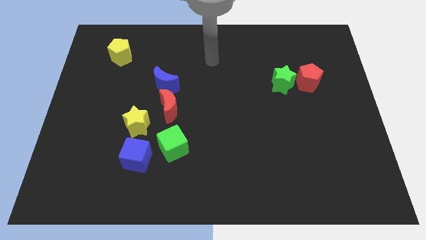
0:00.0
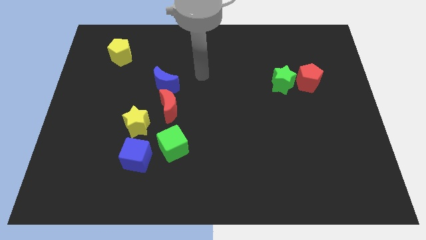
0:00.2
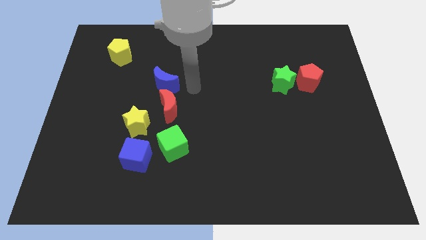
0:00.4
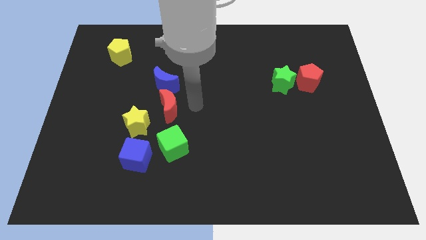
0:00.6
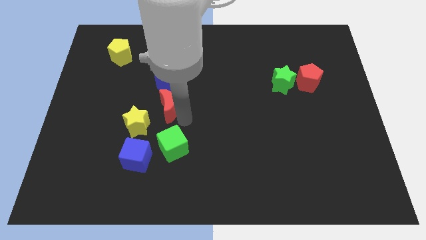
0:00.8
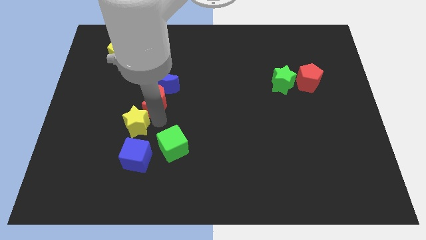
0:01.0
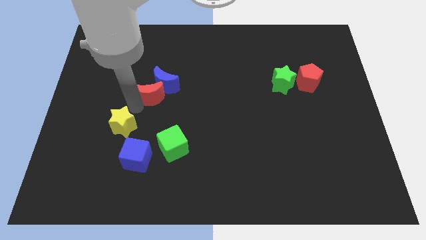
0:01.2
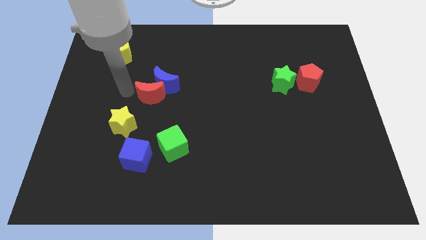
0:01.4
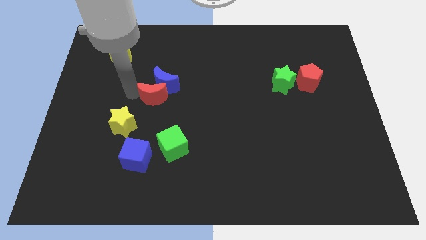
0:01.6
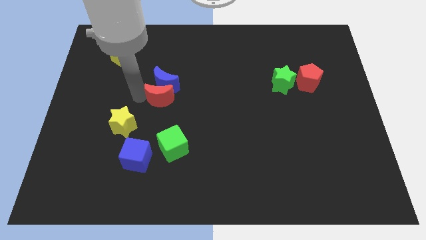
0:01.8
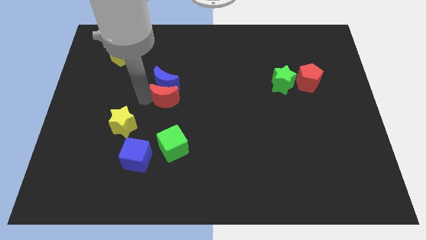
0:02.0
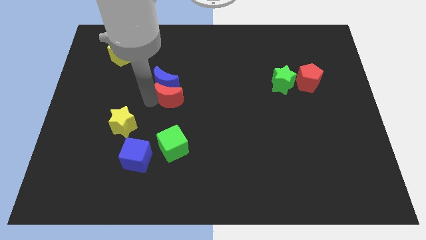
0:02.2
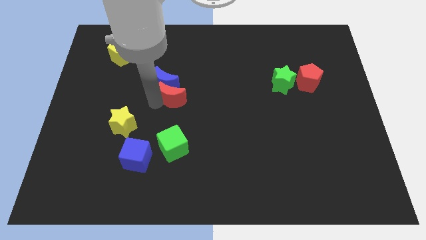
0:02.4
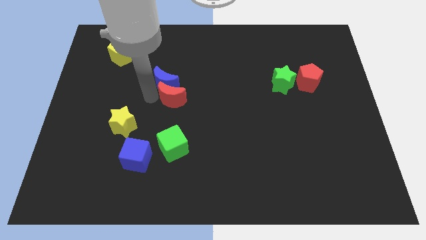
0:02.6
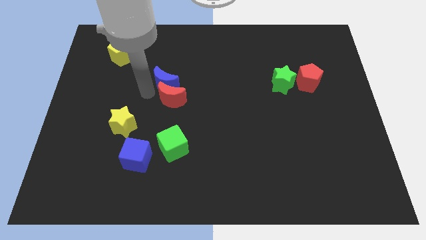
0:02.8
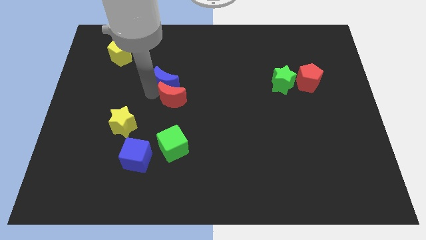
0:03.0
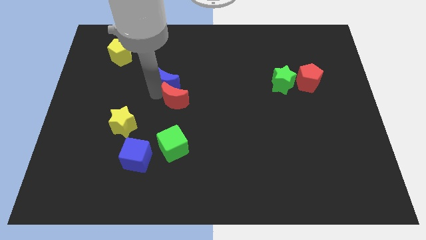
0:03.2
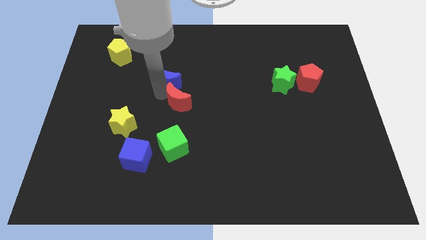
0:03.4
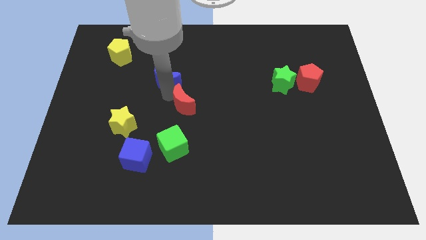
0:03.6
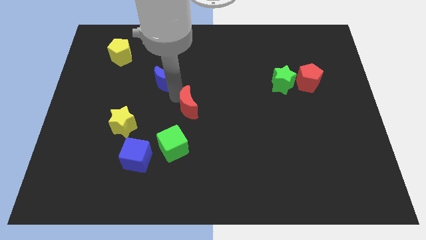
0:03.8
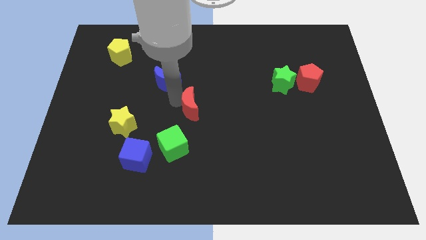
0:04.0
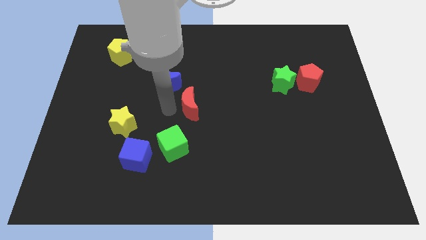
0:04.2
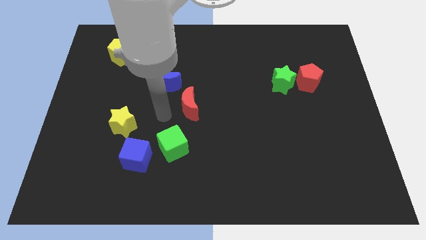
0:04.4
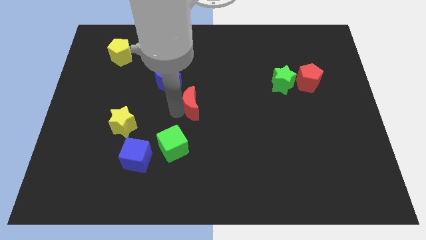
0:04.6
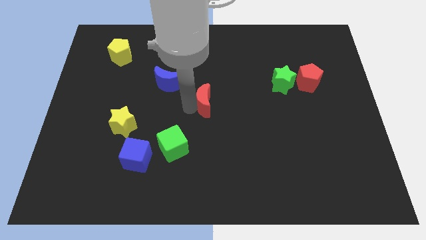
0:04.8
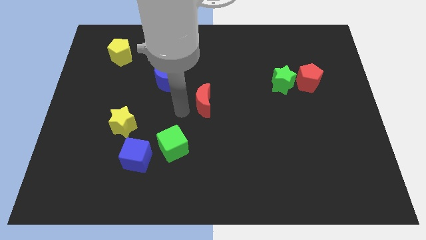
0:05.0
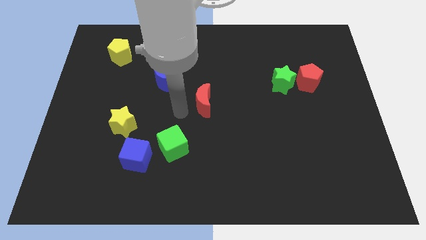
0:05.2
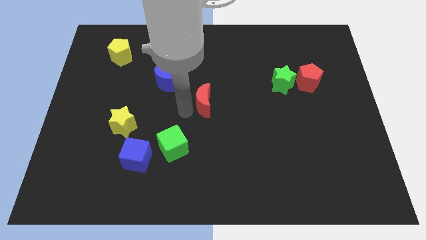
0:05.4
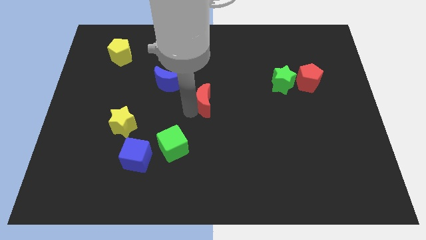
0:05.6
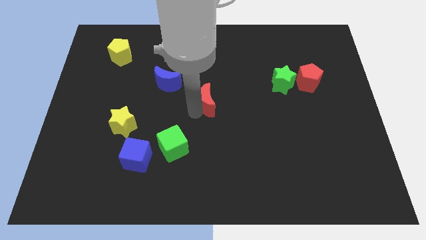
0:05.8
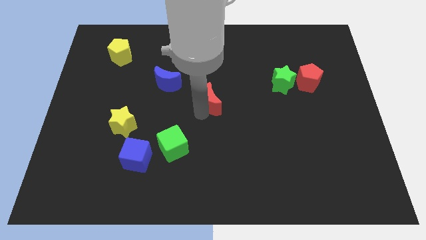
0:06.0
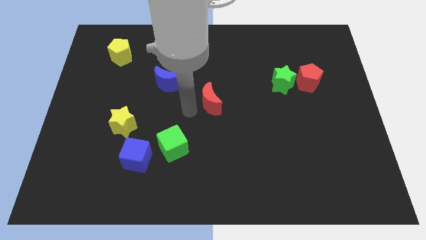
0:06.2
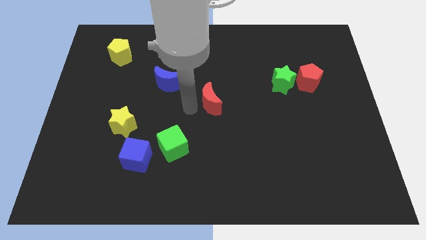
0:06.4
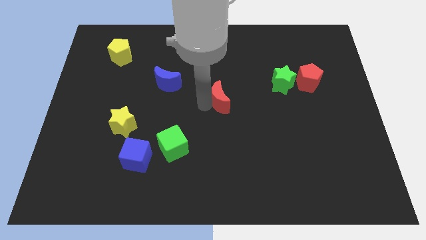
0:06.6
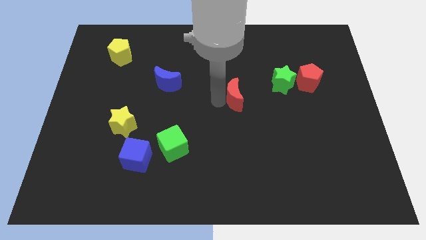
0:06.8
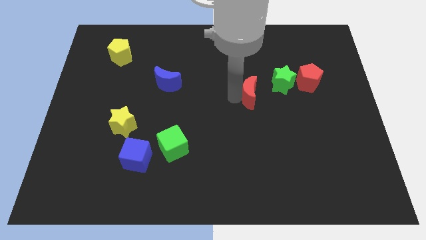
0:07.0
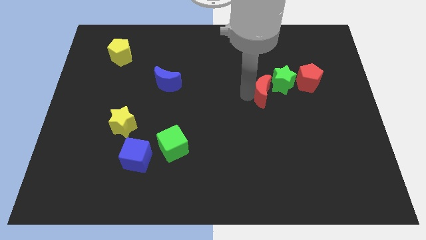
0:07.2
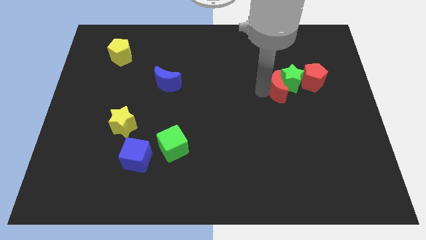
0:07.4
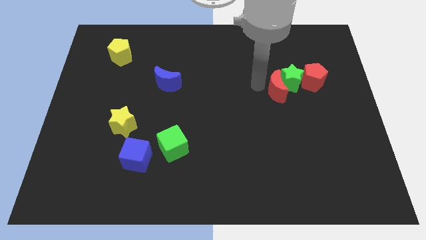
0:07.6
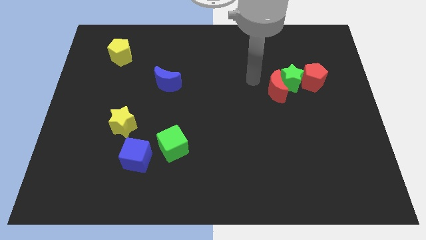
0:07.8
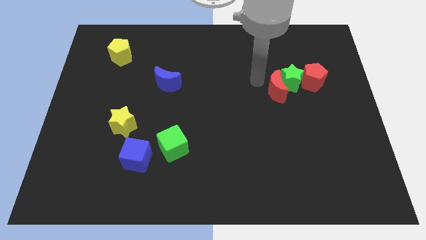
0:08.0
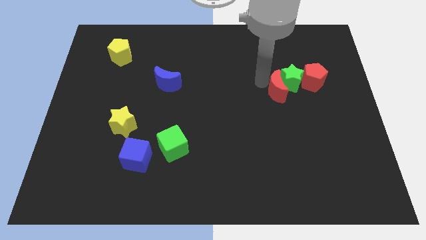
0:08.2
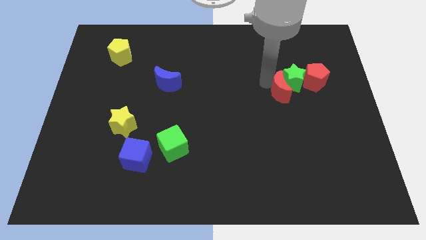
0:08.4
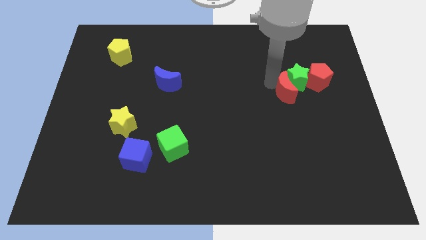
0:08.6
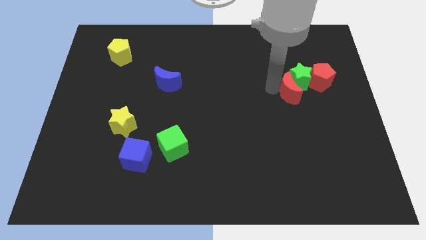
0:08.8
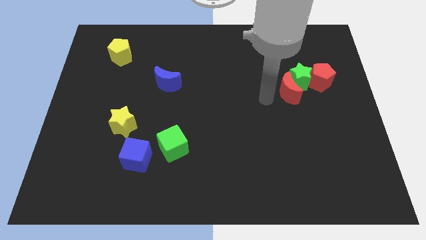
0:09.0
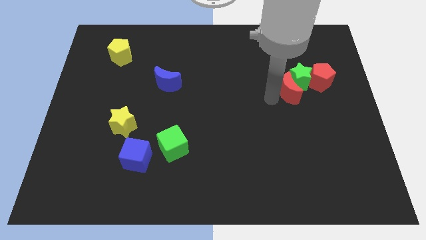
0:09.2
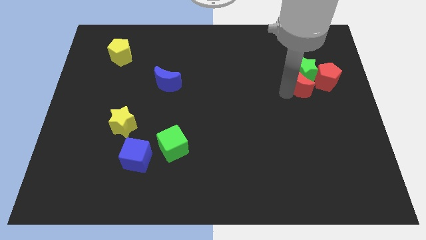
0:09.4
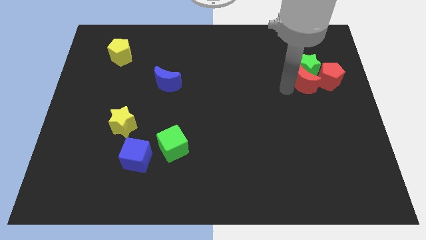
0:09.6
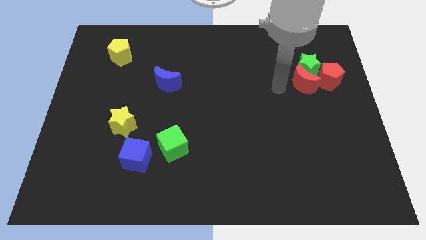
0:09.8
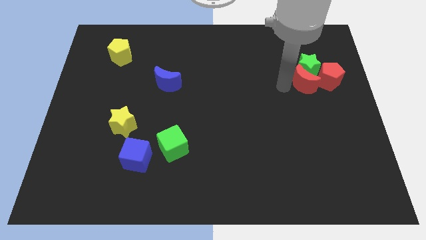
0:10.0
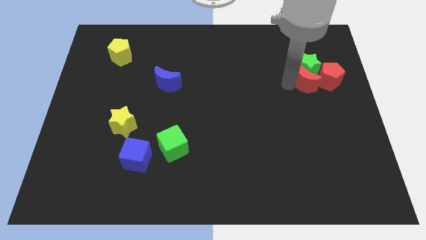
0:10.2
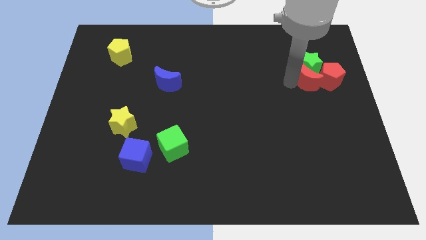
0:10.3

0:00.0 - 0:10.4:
push the red moon close to the red pentagon

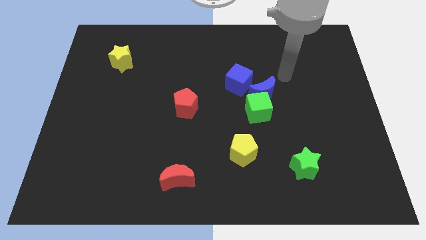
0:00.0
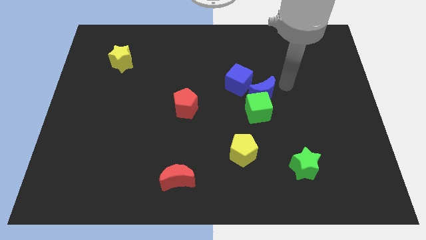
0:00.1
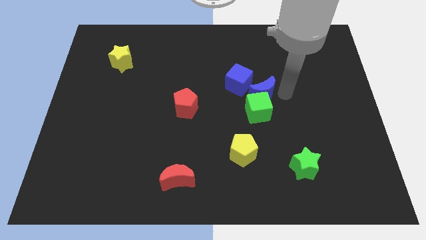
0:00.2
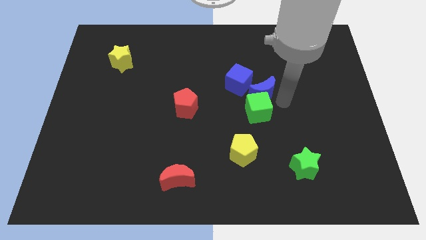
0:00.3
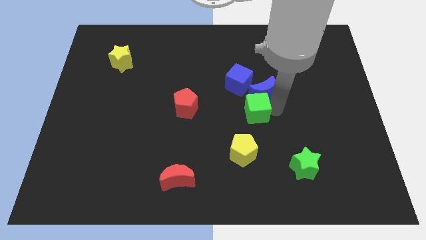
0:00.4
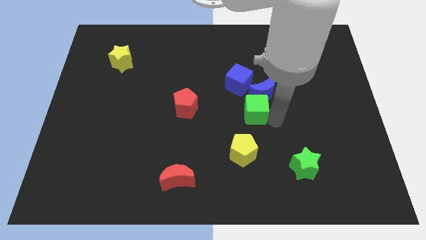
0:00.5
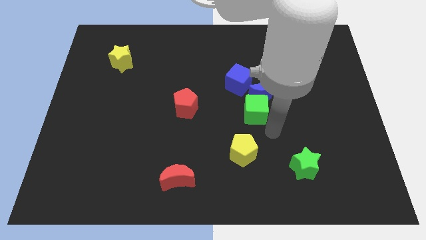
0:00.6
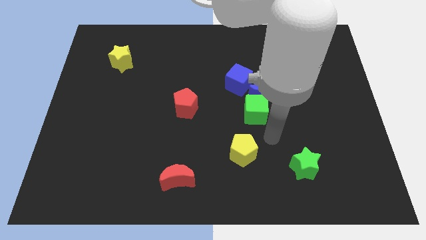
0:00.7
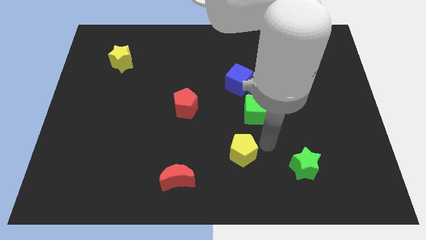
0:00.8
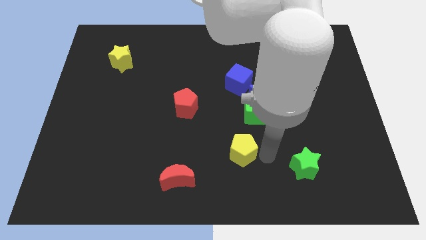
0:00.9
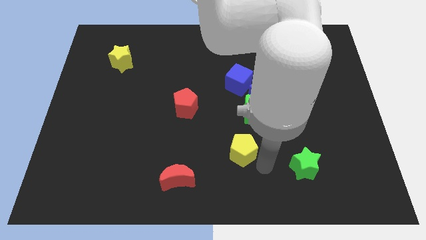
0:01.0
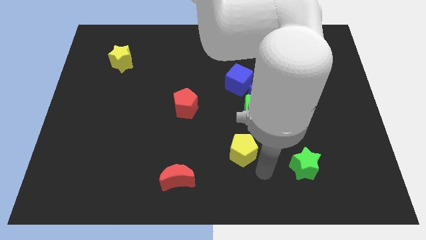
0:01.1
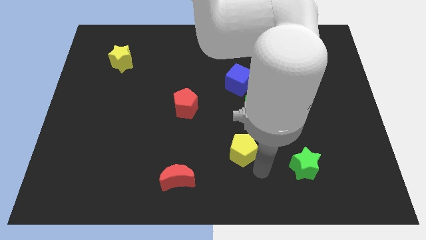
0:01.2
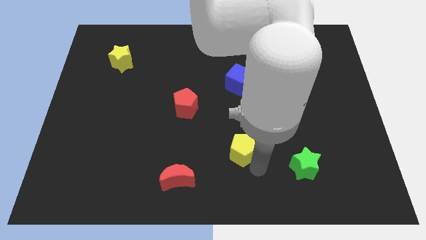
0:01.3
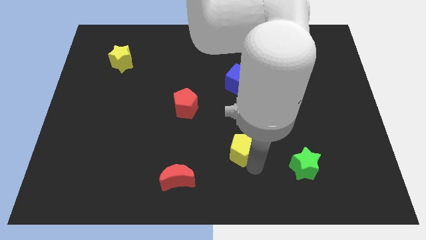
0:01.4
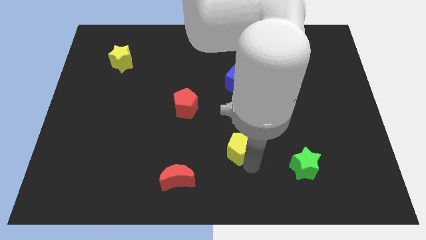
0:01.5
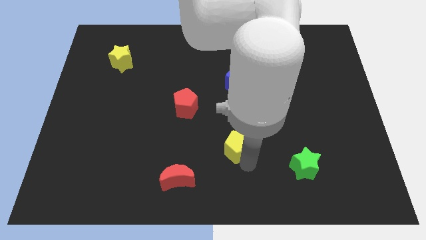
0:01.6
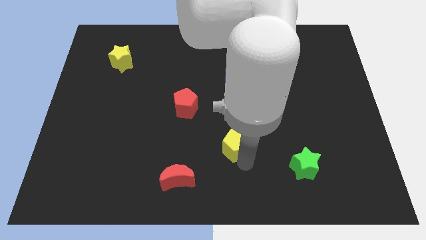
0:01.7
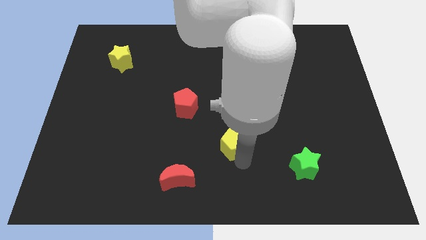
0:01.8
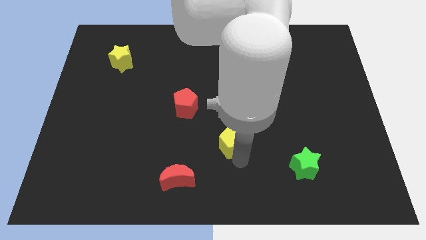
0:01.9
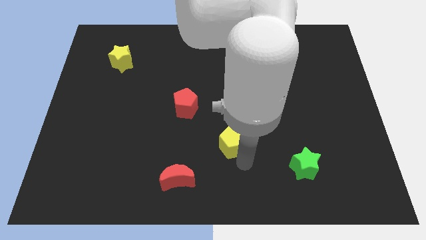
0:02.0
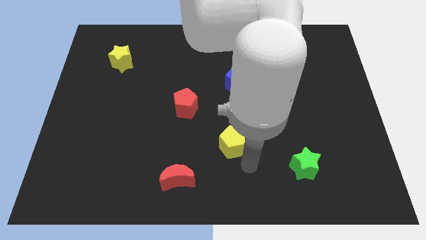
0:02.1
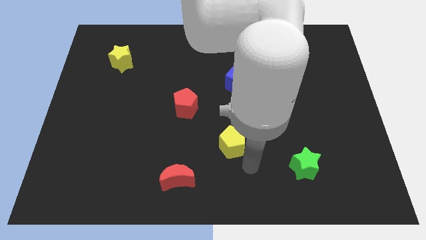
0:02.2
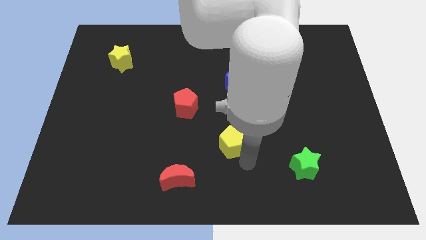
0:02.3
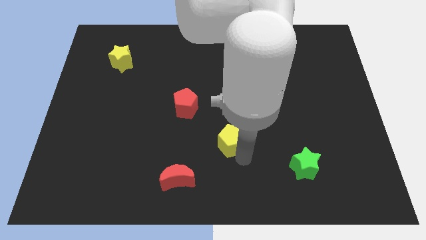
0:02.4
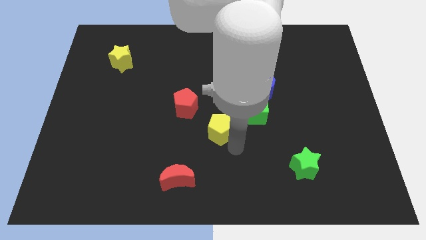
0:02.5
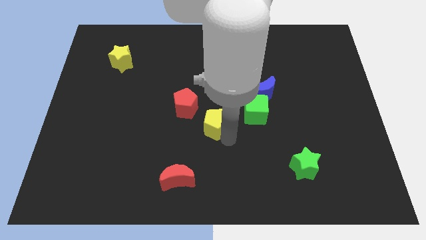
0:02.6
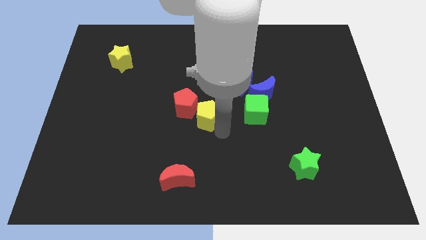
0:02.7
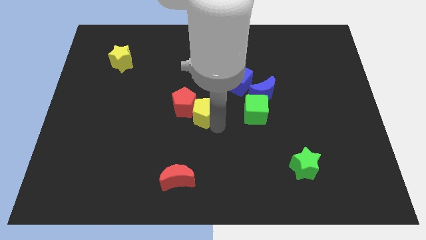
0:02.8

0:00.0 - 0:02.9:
put the yellow pentagon close to the red pentagon
